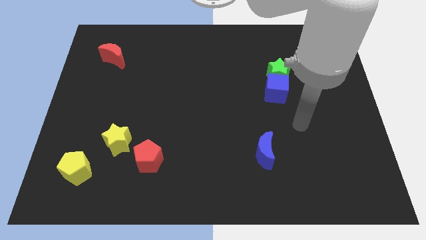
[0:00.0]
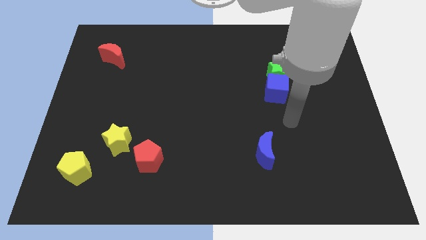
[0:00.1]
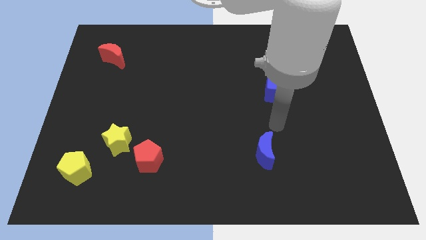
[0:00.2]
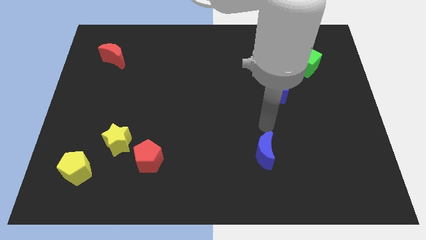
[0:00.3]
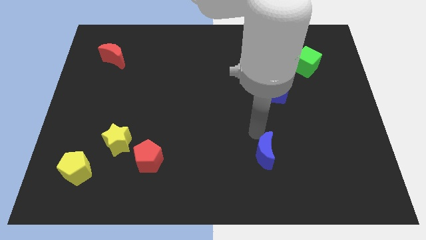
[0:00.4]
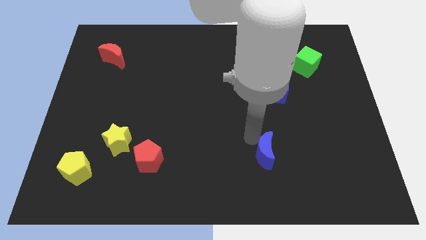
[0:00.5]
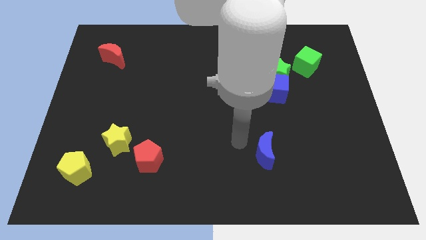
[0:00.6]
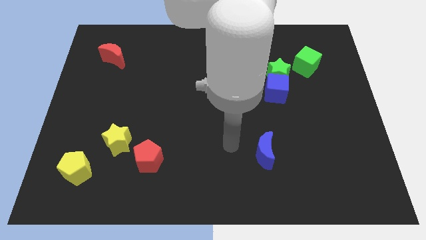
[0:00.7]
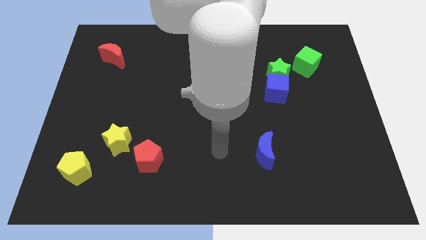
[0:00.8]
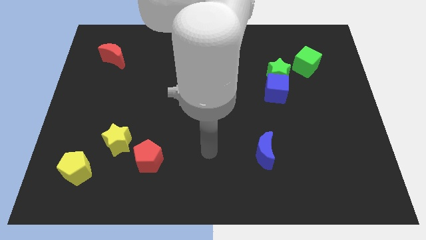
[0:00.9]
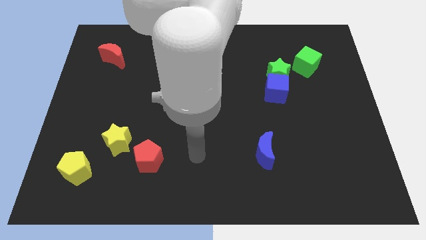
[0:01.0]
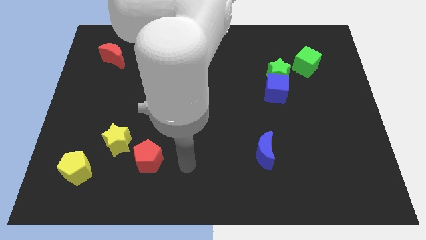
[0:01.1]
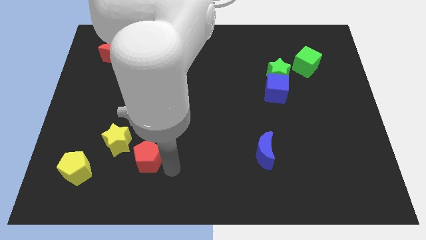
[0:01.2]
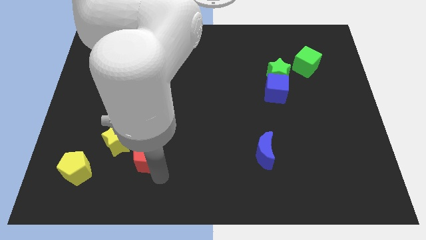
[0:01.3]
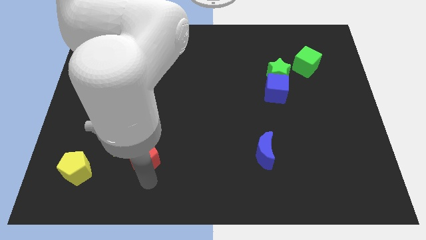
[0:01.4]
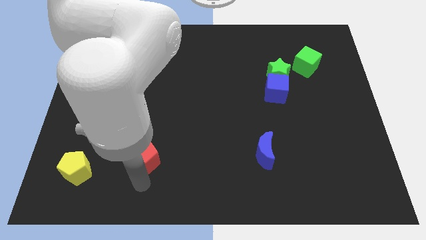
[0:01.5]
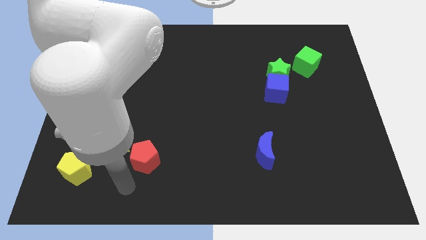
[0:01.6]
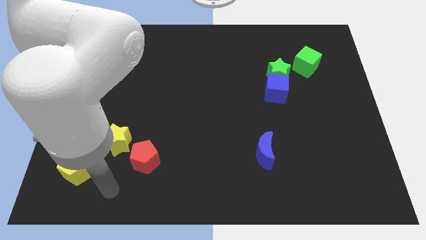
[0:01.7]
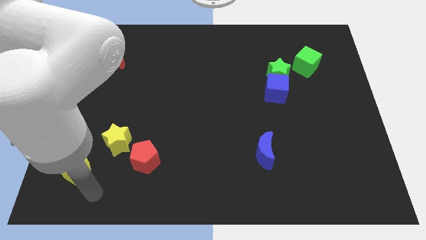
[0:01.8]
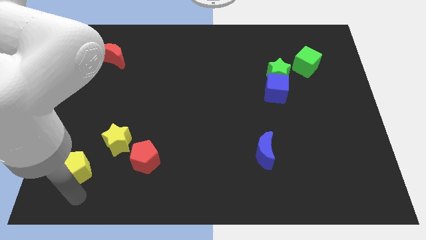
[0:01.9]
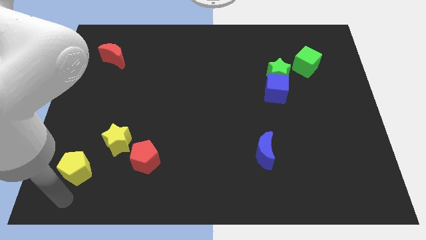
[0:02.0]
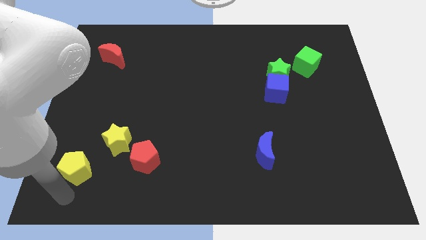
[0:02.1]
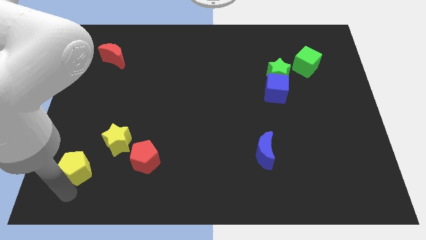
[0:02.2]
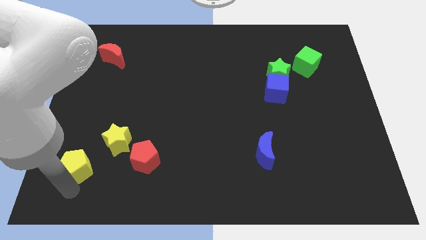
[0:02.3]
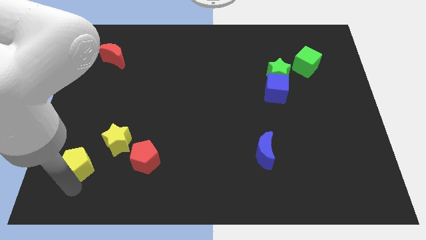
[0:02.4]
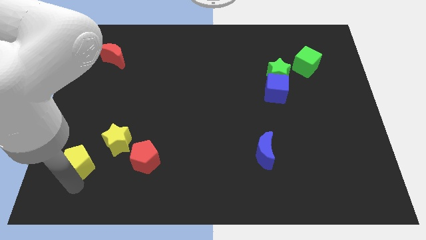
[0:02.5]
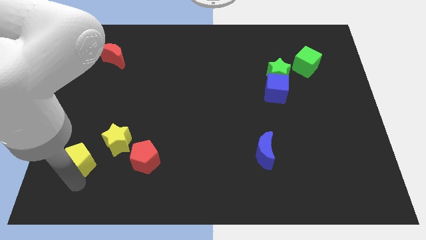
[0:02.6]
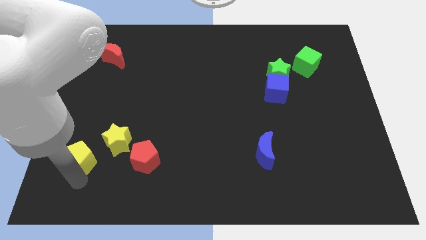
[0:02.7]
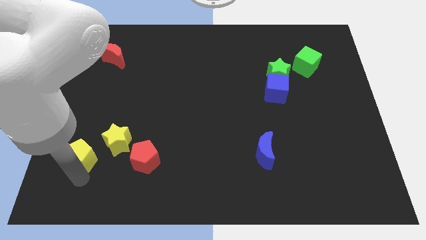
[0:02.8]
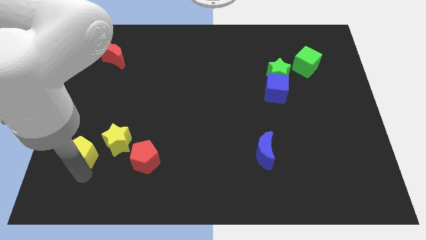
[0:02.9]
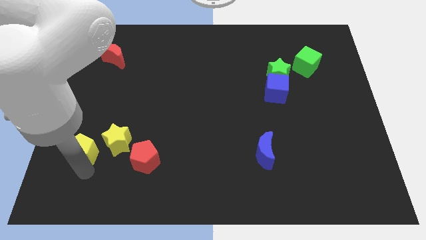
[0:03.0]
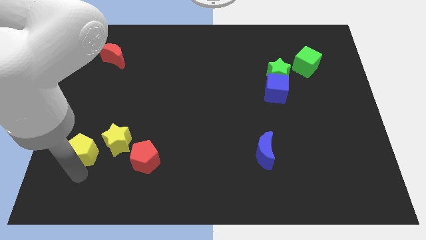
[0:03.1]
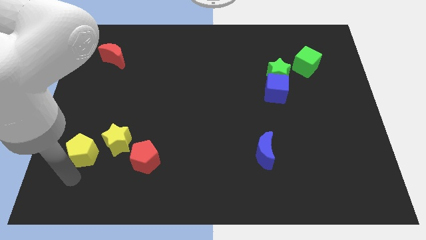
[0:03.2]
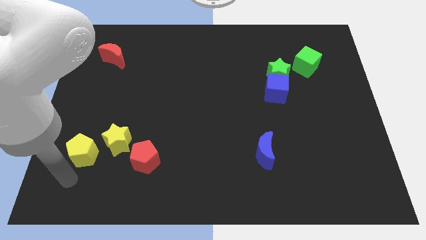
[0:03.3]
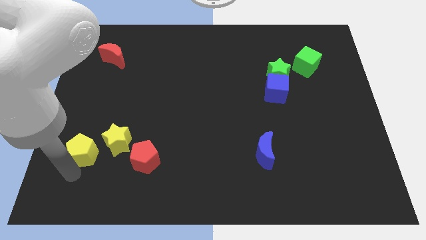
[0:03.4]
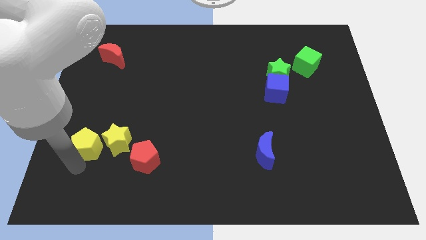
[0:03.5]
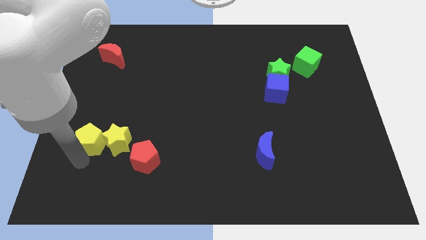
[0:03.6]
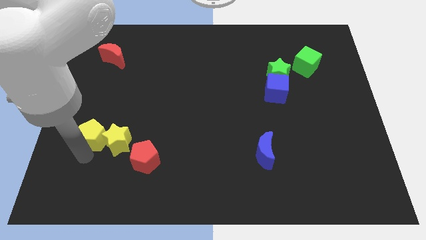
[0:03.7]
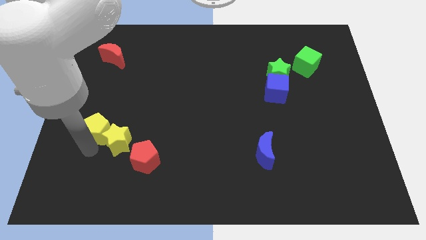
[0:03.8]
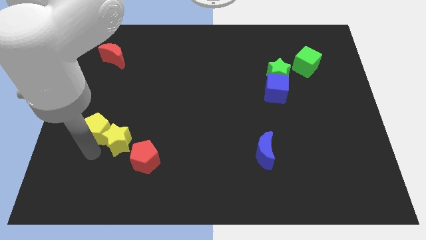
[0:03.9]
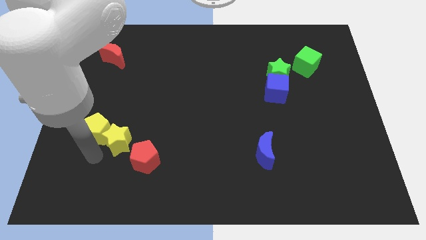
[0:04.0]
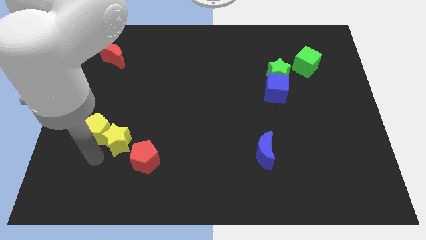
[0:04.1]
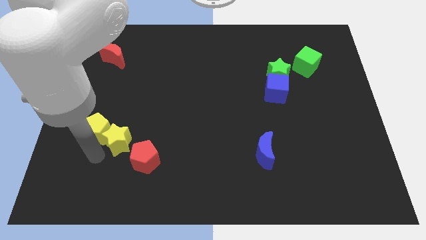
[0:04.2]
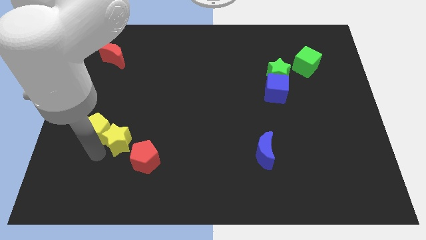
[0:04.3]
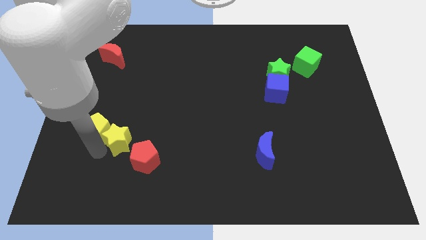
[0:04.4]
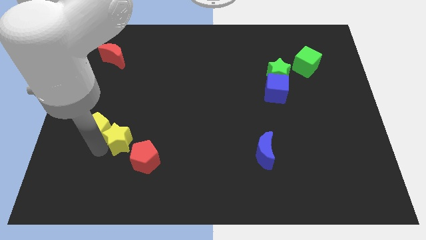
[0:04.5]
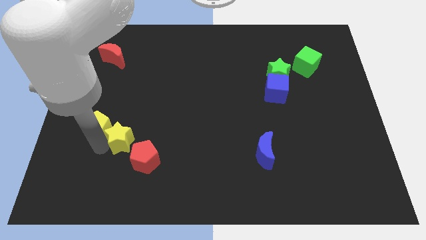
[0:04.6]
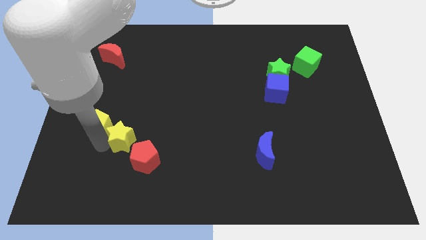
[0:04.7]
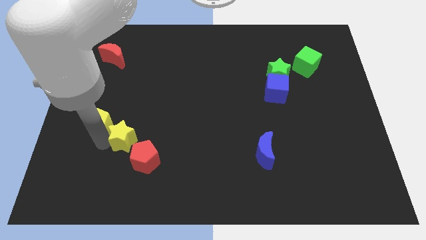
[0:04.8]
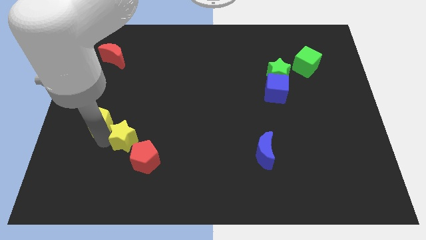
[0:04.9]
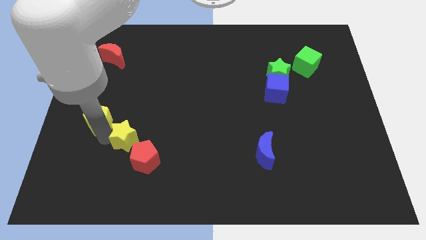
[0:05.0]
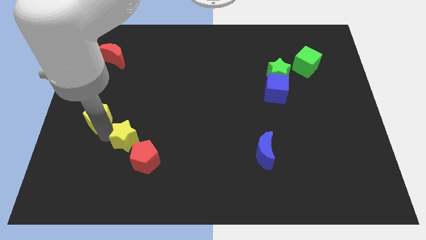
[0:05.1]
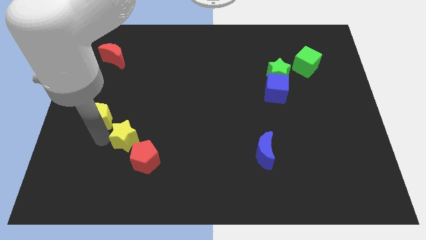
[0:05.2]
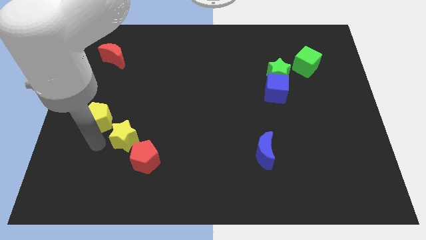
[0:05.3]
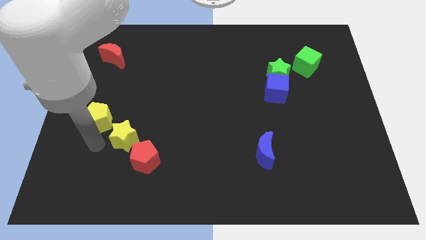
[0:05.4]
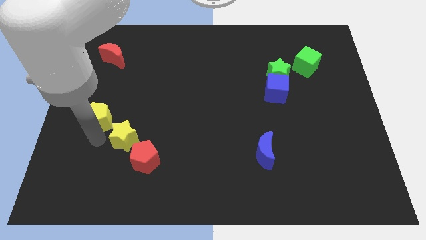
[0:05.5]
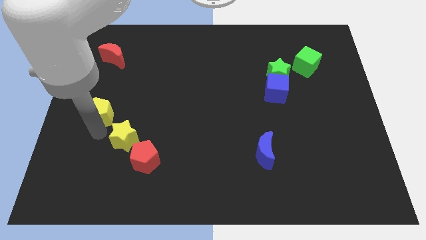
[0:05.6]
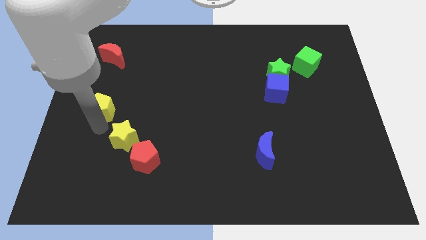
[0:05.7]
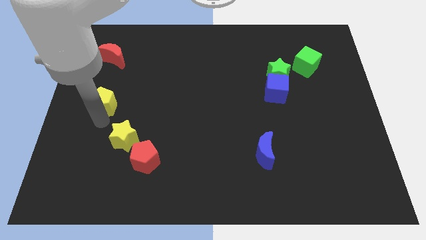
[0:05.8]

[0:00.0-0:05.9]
put the yellow pentagon to the bottom side of the red moon

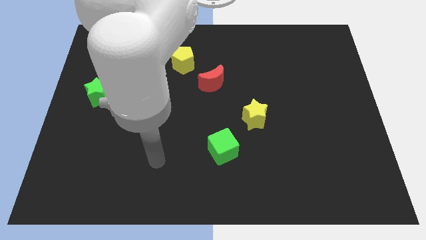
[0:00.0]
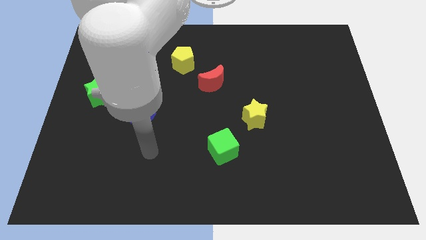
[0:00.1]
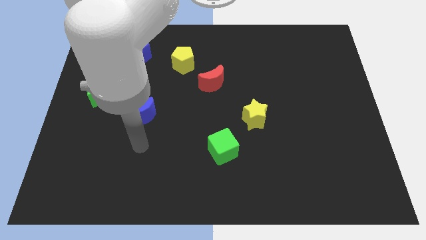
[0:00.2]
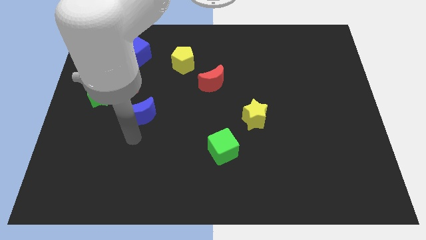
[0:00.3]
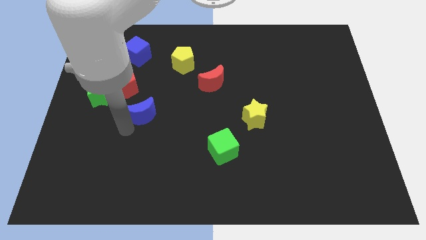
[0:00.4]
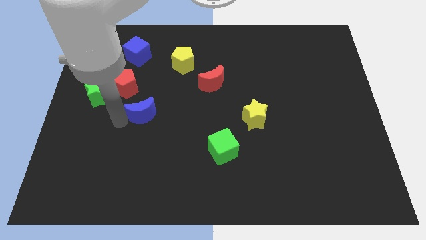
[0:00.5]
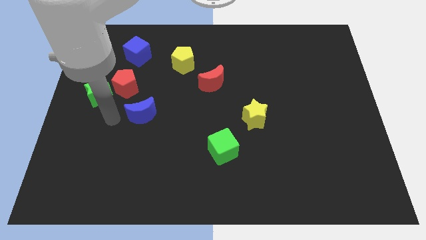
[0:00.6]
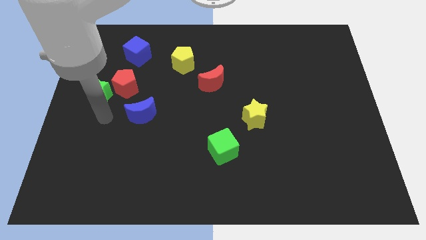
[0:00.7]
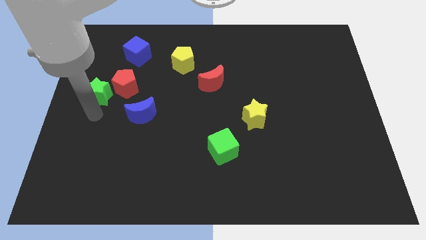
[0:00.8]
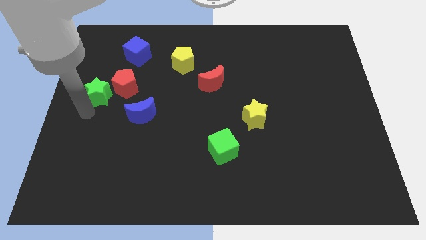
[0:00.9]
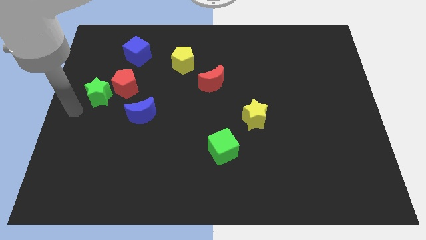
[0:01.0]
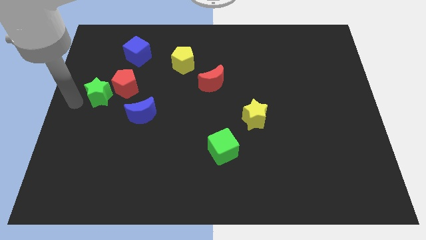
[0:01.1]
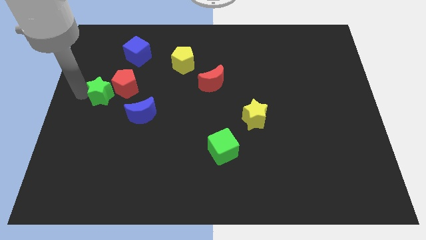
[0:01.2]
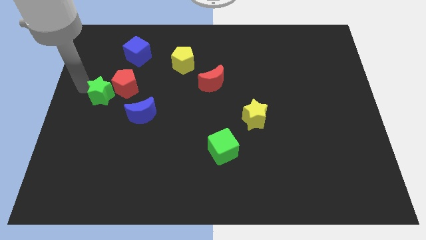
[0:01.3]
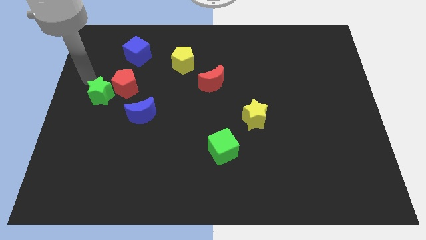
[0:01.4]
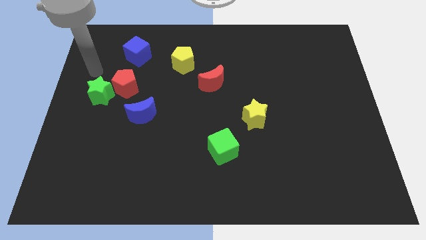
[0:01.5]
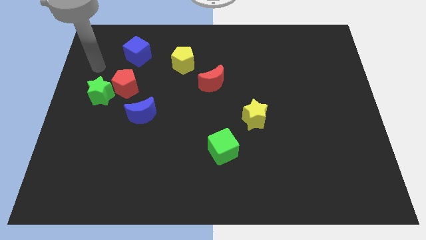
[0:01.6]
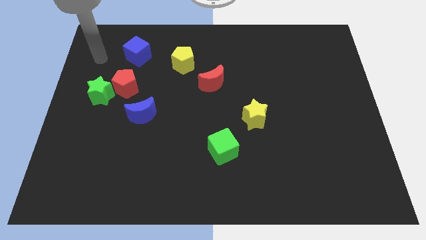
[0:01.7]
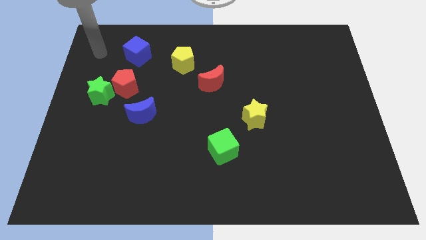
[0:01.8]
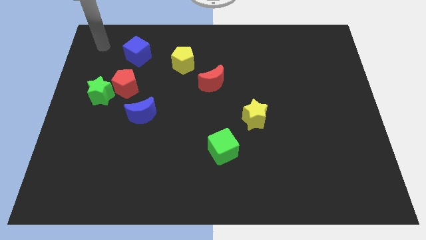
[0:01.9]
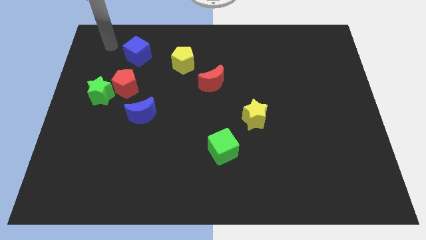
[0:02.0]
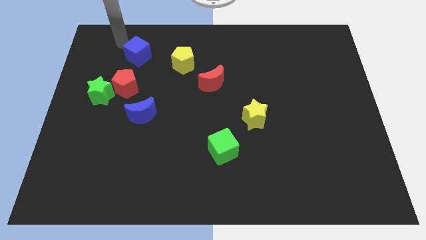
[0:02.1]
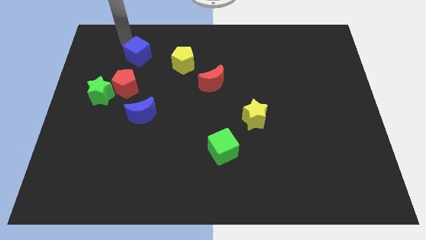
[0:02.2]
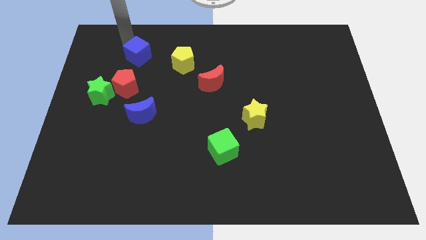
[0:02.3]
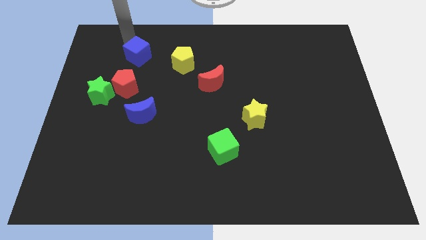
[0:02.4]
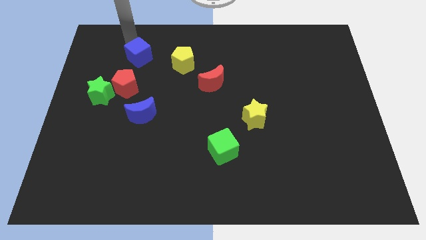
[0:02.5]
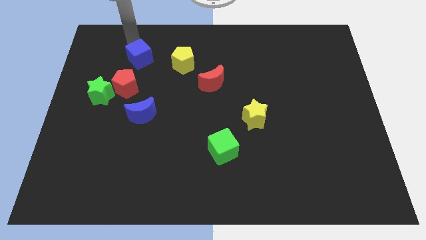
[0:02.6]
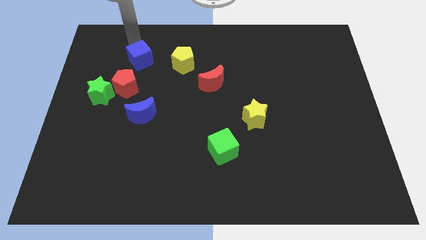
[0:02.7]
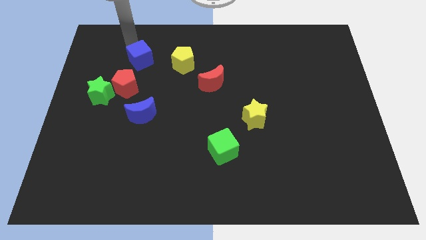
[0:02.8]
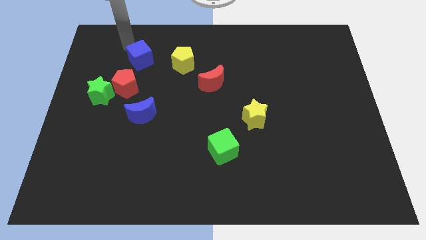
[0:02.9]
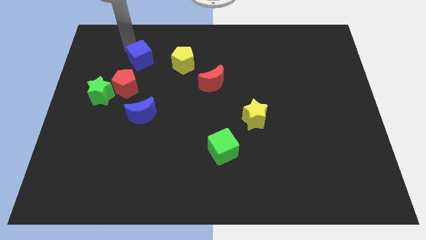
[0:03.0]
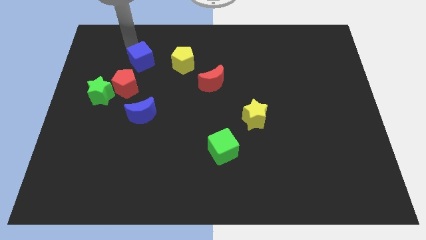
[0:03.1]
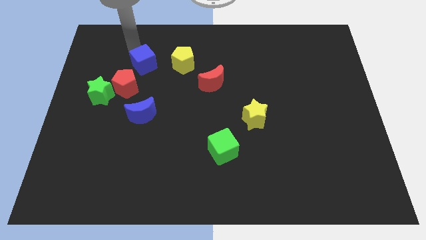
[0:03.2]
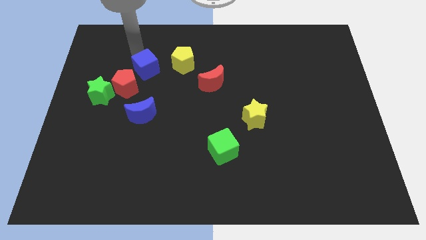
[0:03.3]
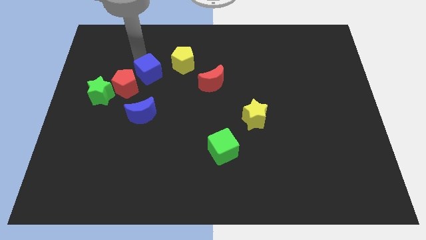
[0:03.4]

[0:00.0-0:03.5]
put the blue cube diagonally down and to the left of the yellow pentagon
